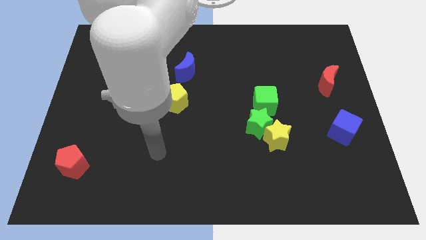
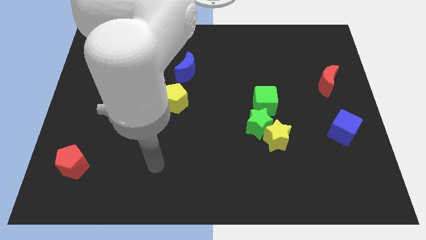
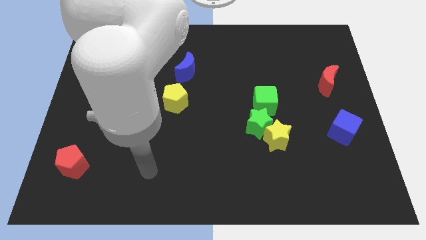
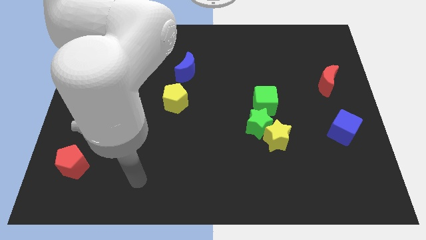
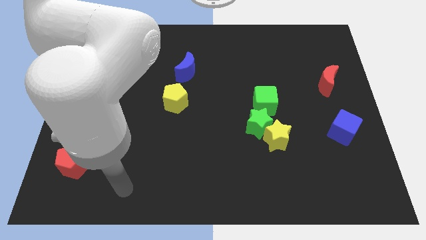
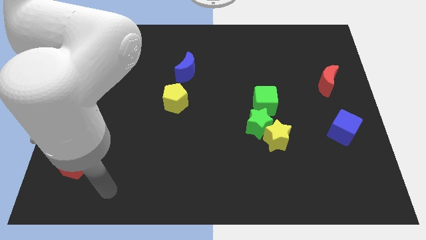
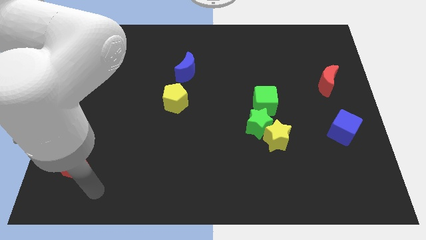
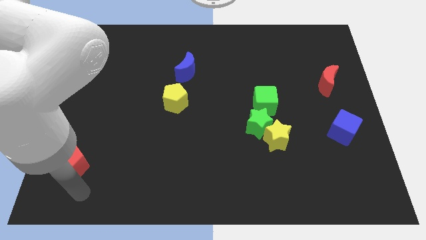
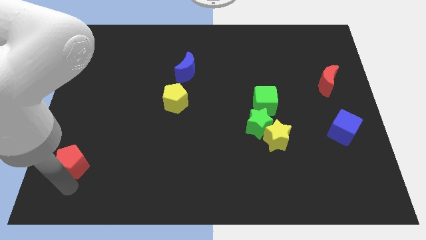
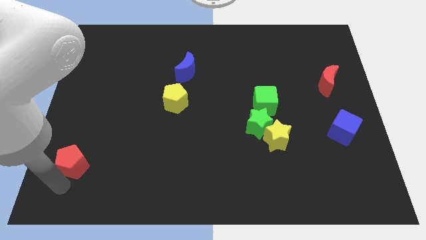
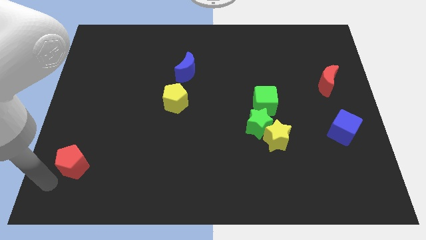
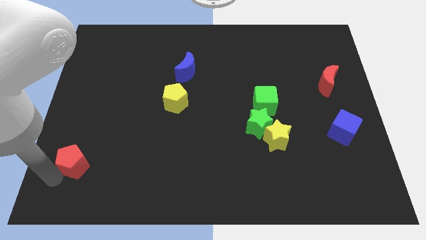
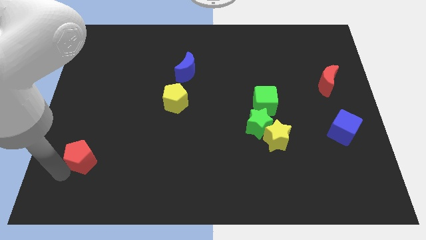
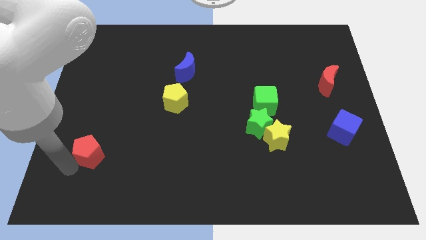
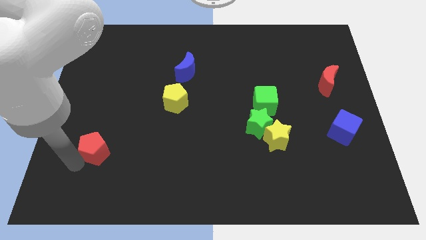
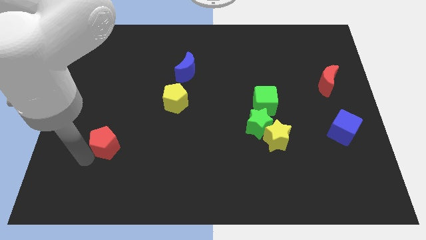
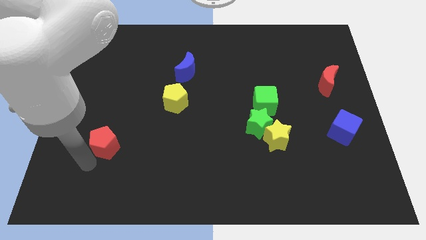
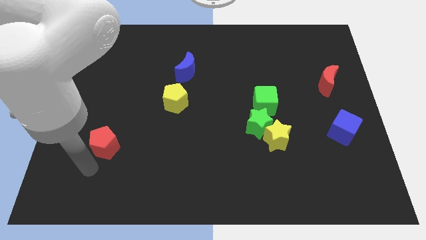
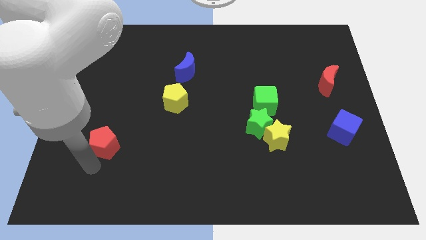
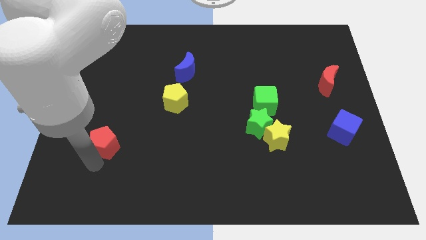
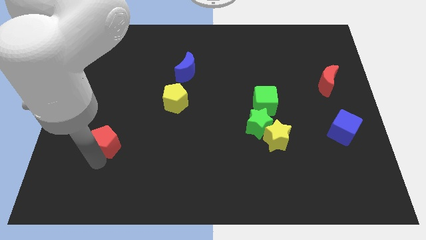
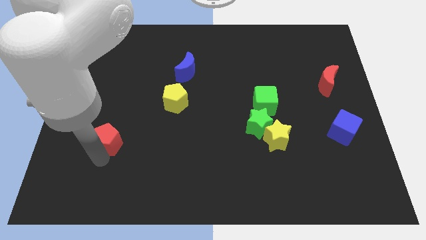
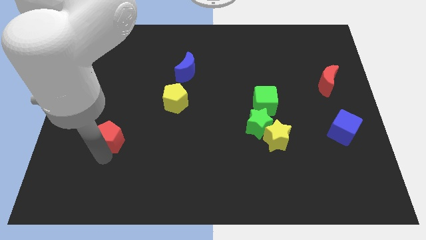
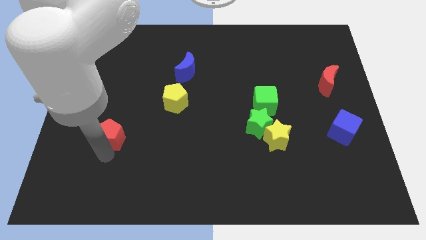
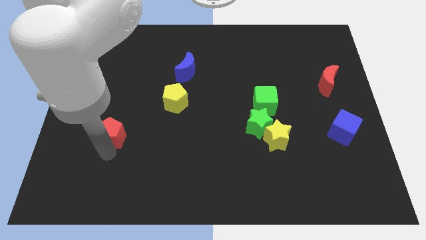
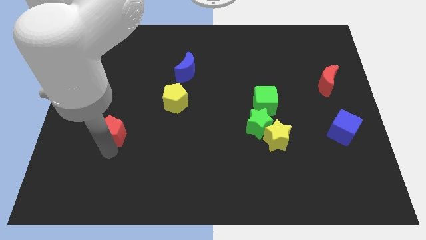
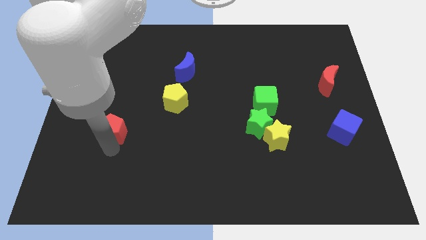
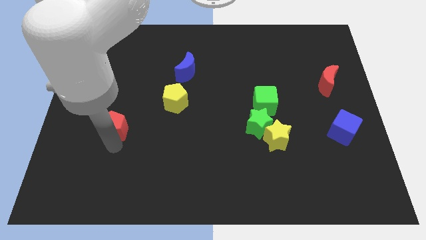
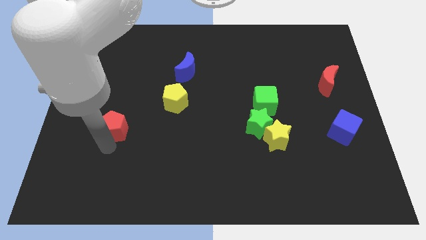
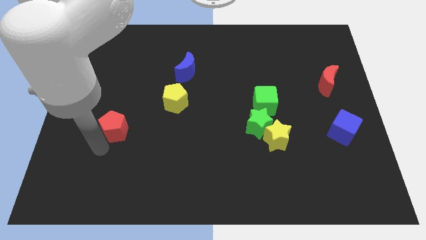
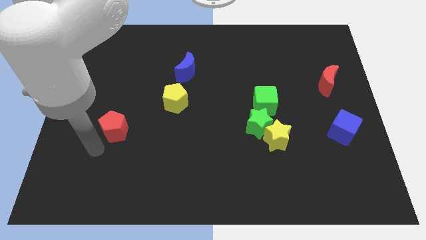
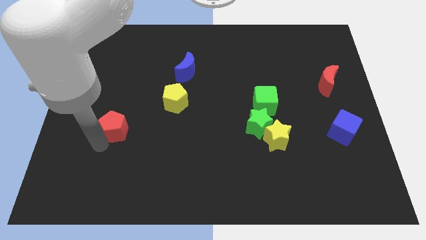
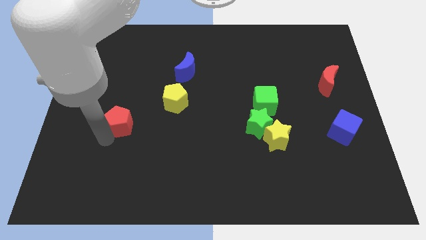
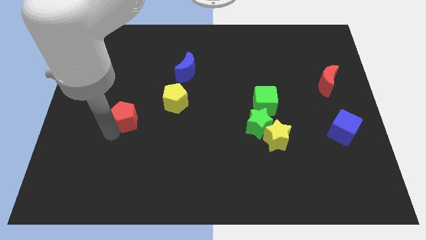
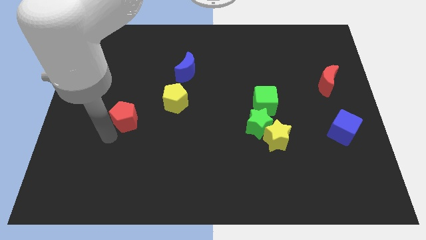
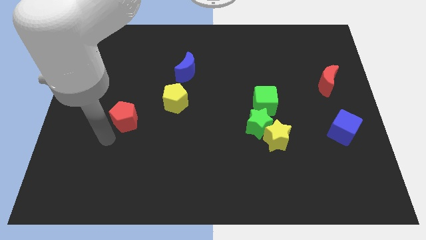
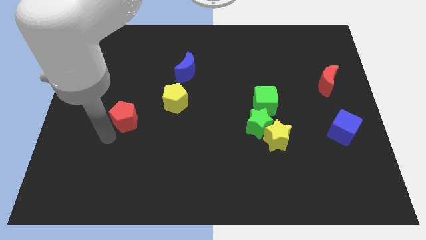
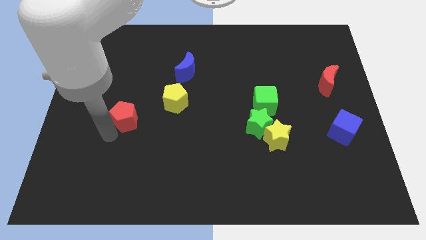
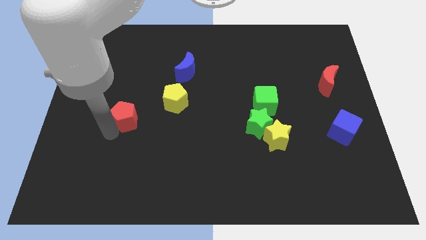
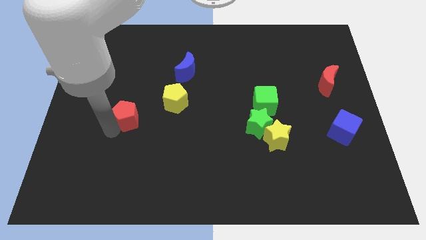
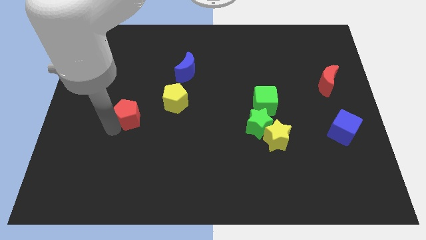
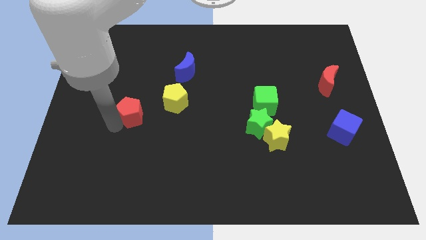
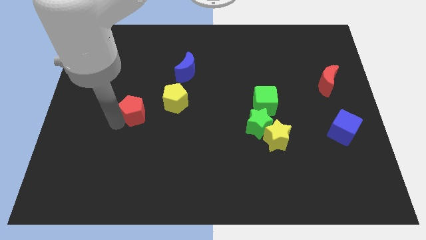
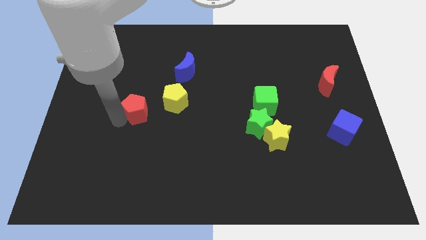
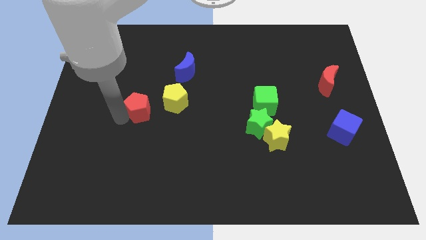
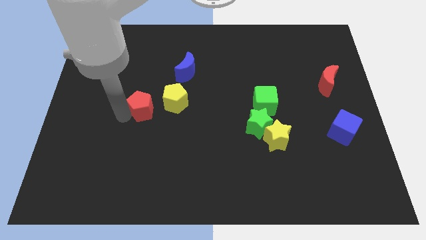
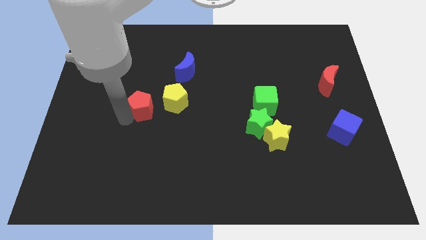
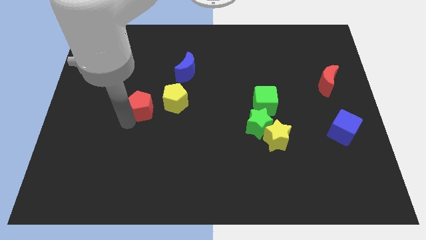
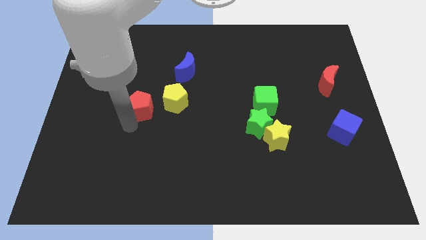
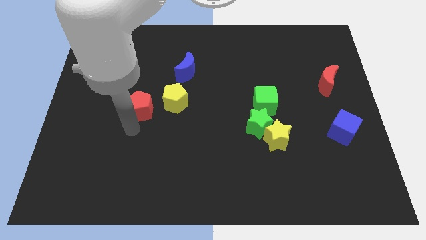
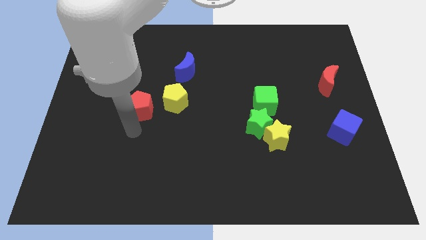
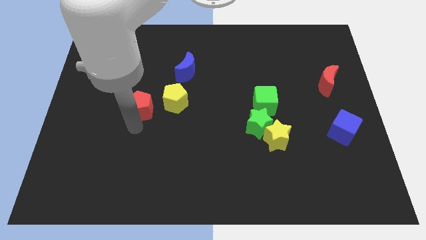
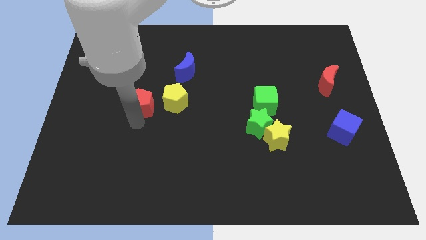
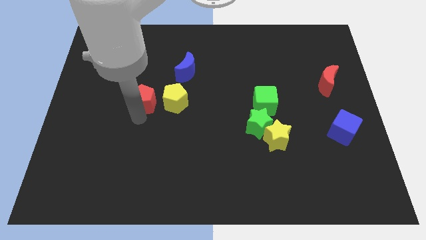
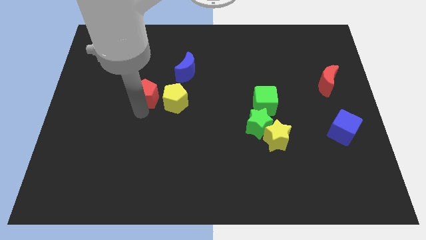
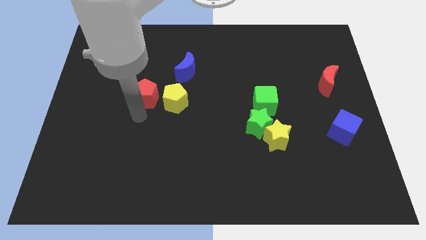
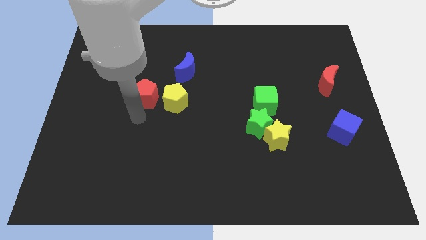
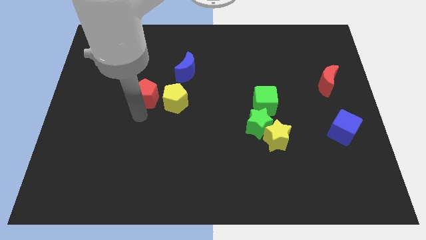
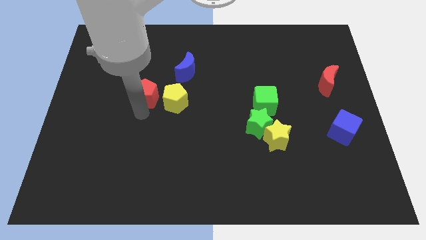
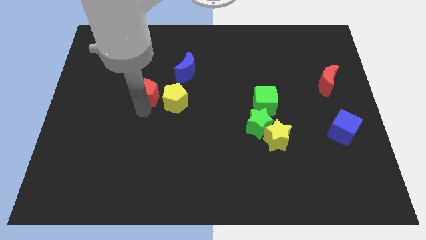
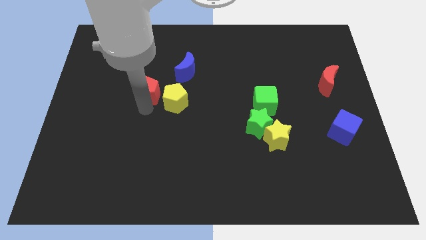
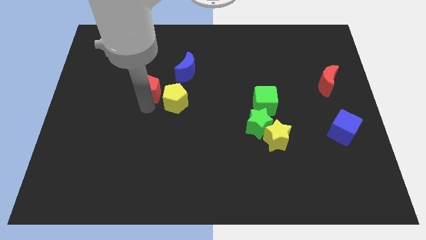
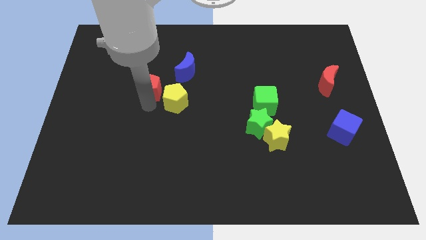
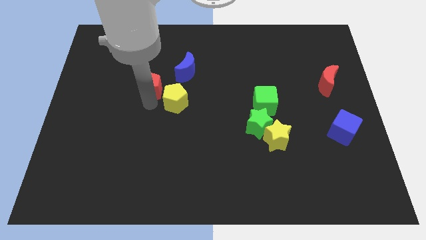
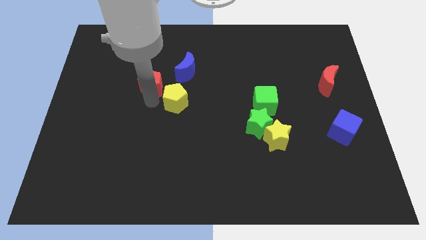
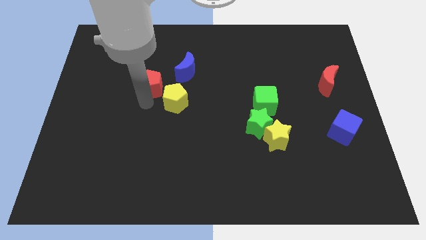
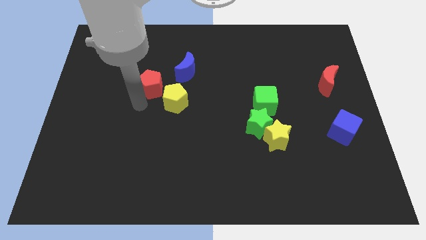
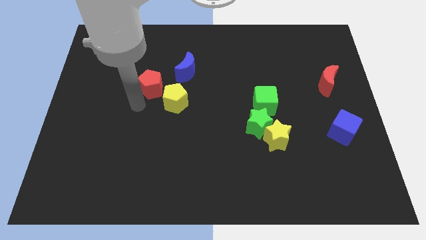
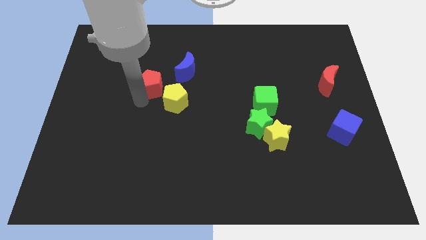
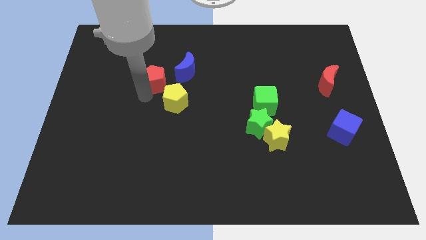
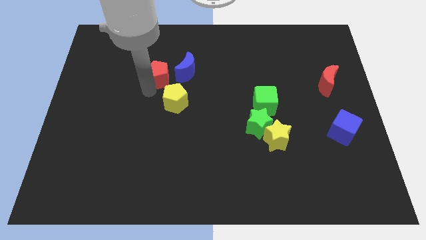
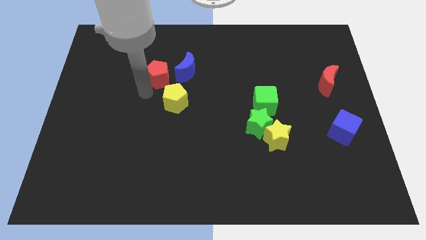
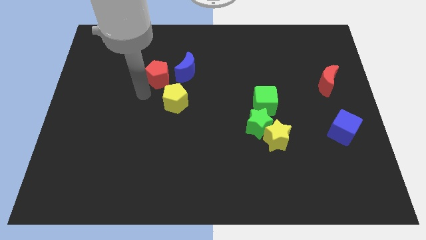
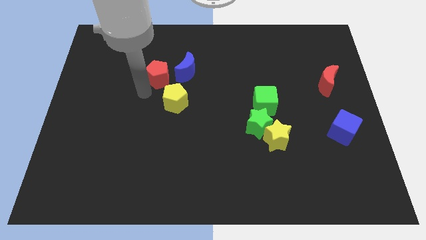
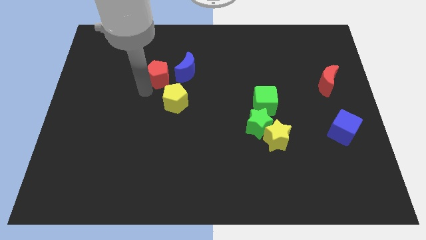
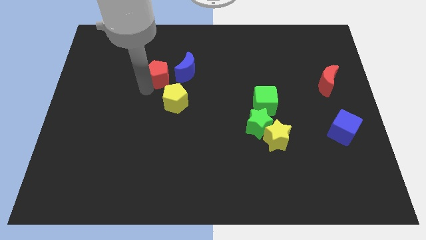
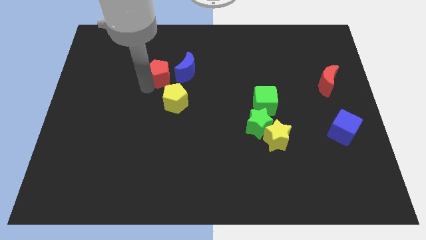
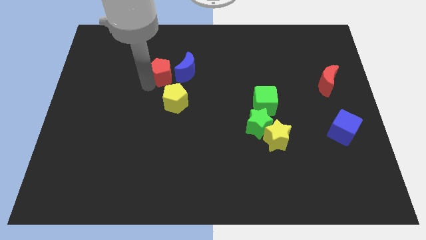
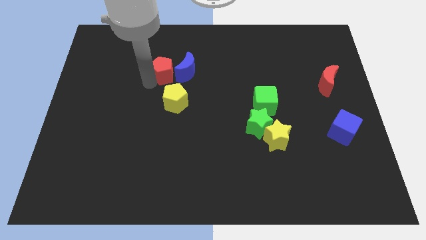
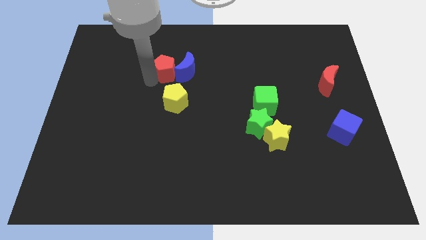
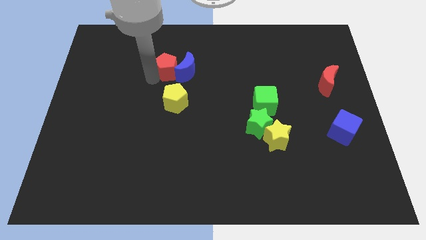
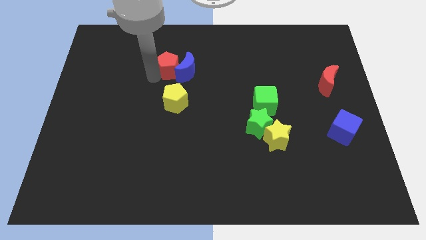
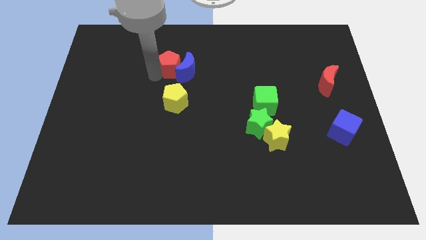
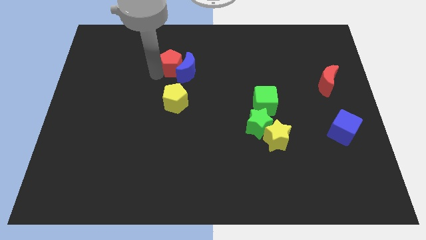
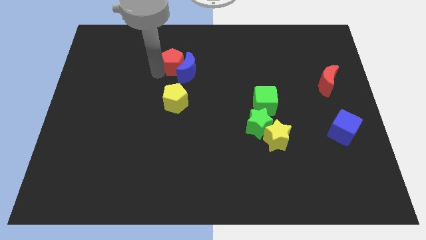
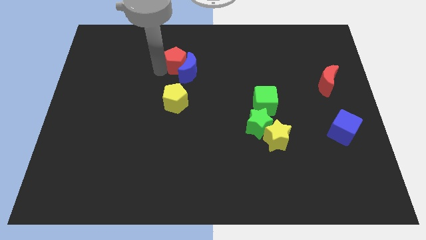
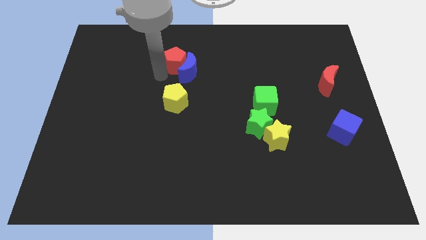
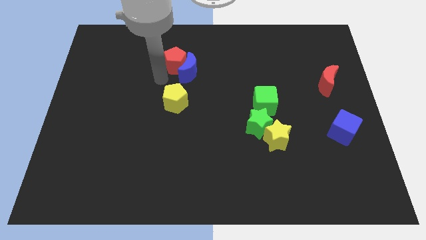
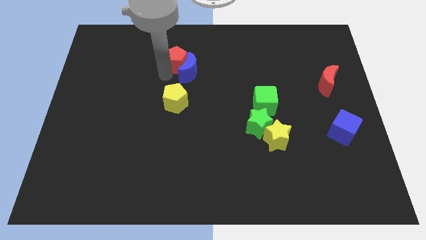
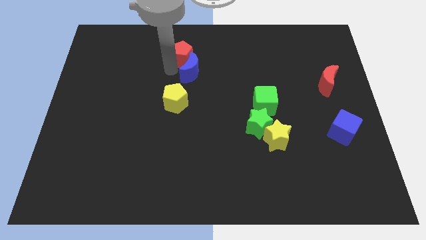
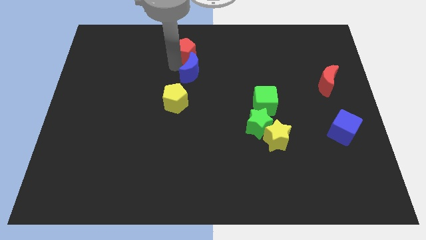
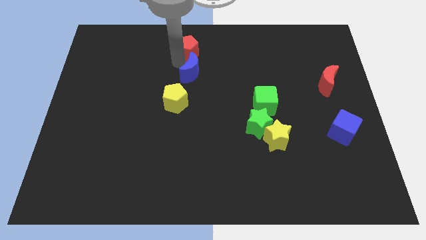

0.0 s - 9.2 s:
slide the red pentagon to the towards your base
